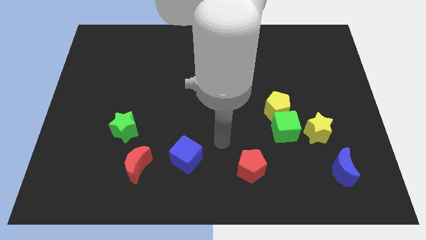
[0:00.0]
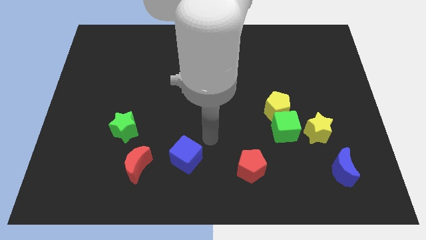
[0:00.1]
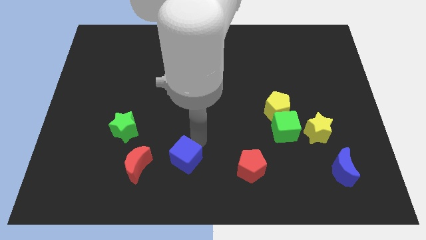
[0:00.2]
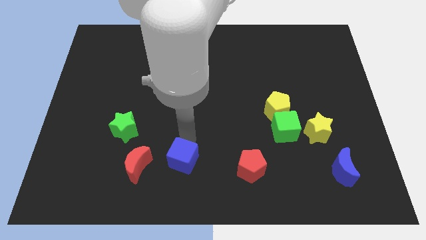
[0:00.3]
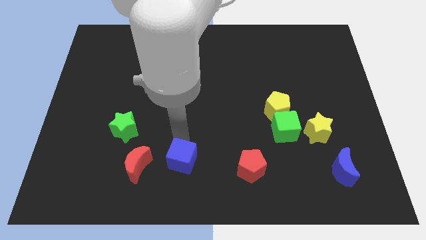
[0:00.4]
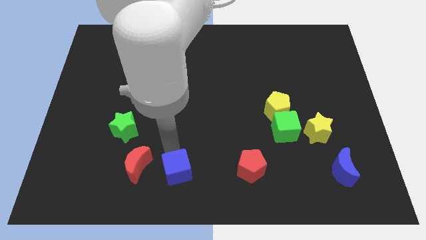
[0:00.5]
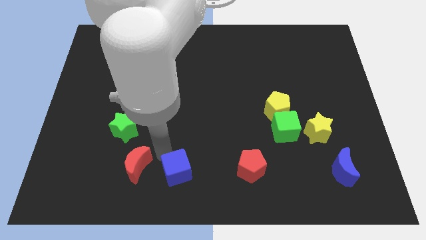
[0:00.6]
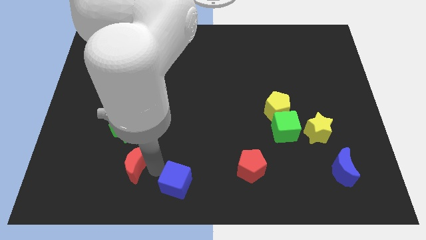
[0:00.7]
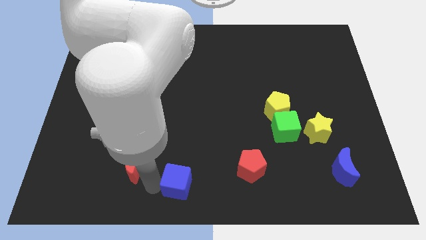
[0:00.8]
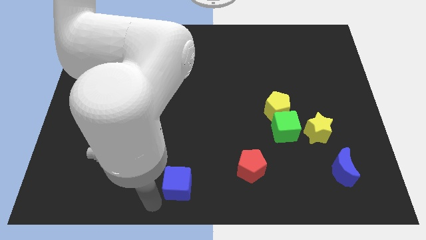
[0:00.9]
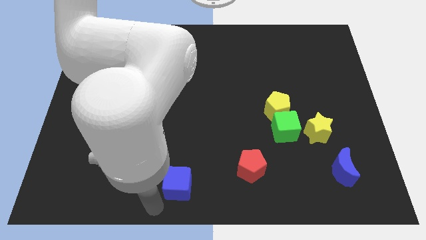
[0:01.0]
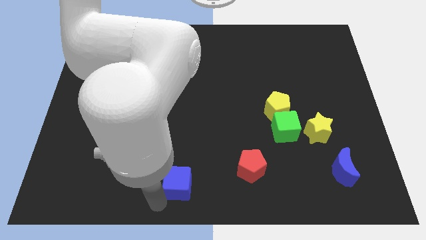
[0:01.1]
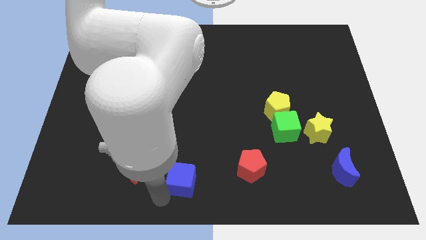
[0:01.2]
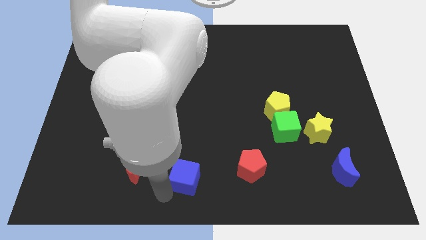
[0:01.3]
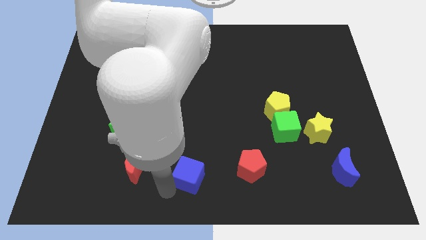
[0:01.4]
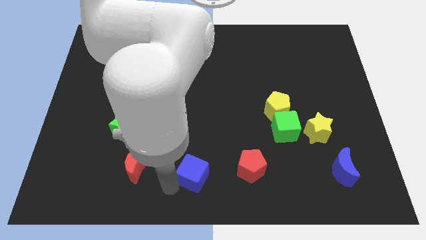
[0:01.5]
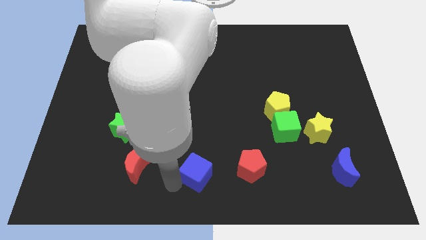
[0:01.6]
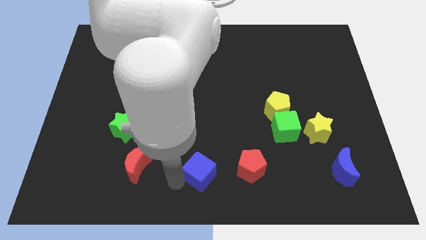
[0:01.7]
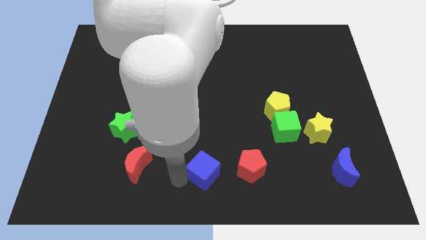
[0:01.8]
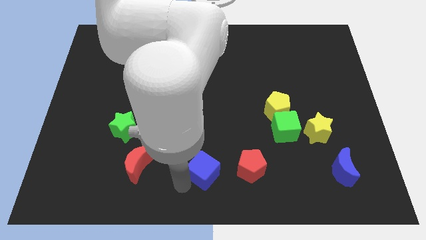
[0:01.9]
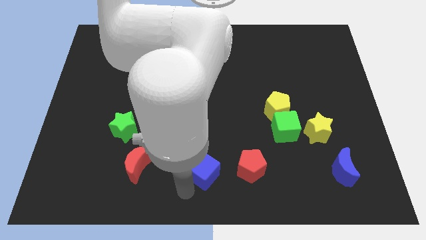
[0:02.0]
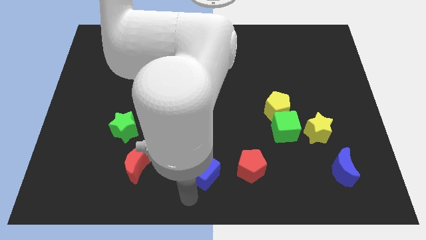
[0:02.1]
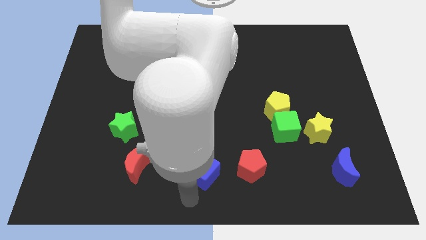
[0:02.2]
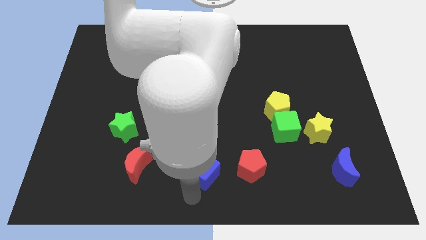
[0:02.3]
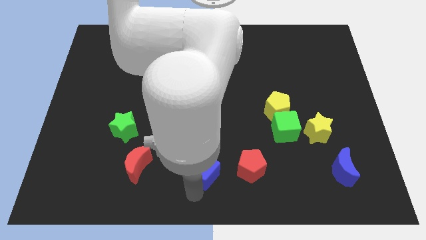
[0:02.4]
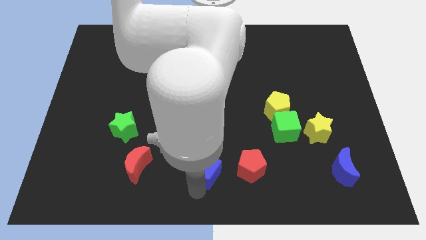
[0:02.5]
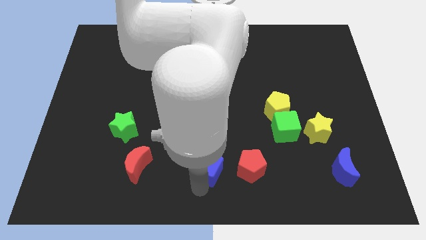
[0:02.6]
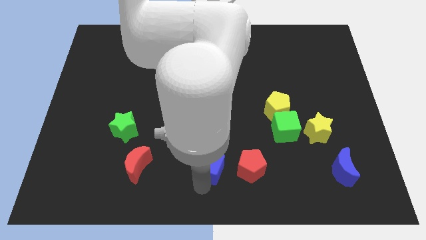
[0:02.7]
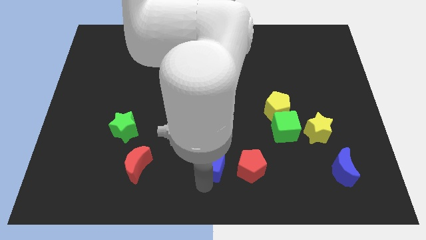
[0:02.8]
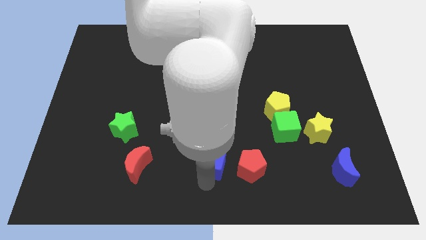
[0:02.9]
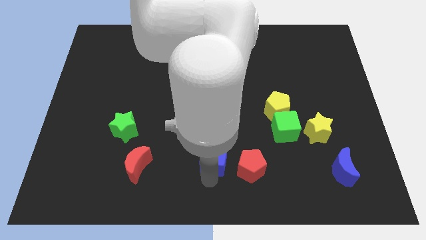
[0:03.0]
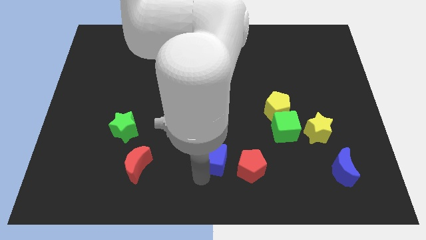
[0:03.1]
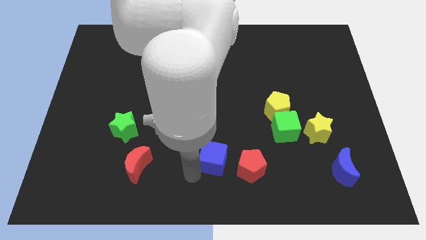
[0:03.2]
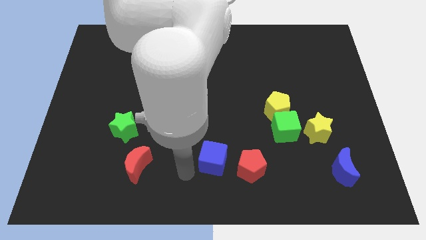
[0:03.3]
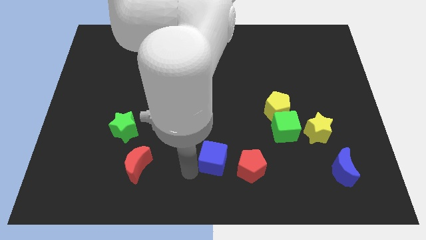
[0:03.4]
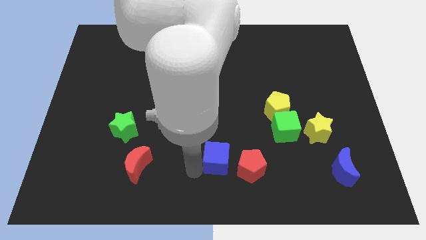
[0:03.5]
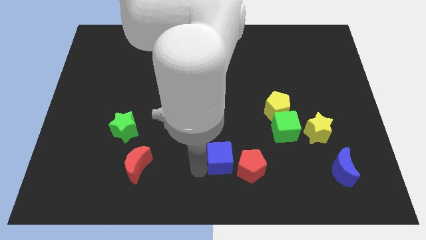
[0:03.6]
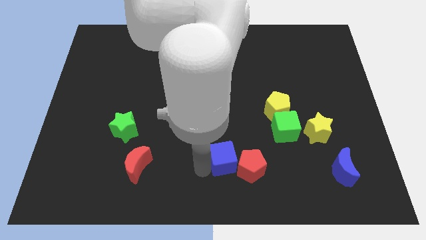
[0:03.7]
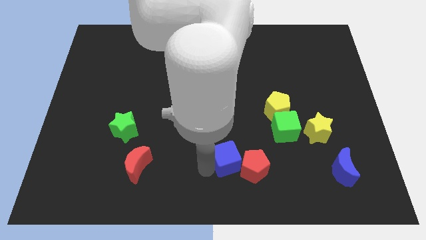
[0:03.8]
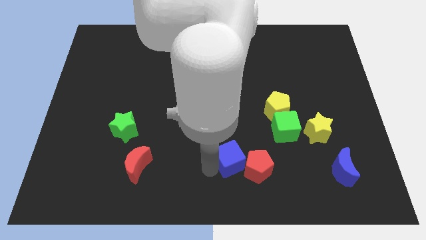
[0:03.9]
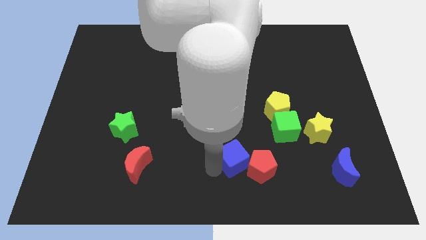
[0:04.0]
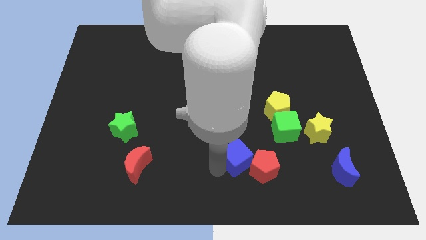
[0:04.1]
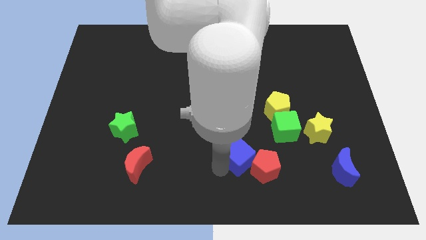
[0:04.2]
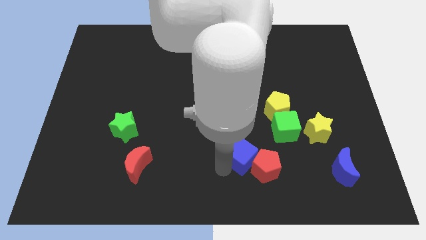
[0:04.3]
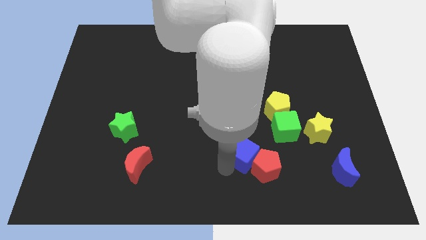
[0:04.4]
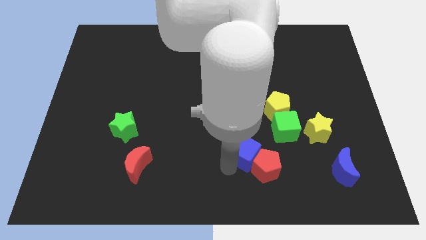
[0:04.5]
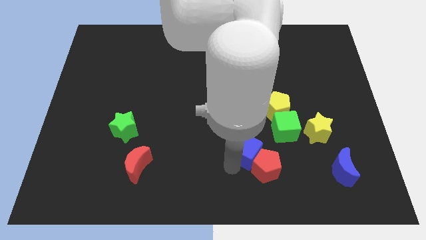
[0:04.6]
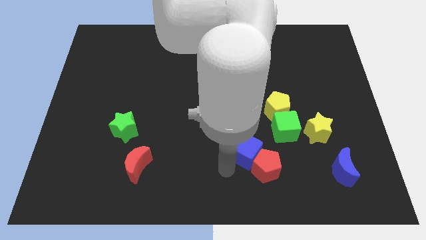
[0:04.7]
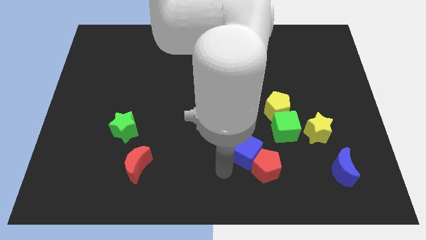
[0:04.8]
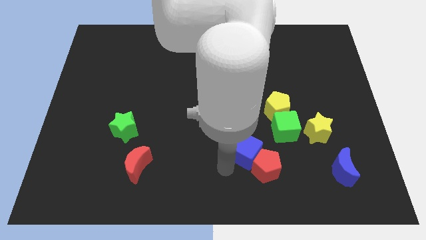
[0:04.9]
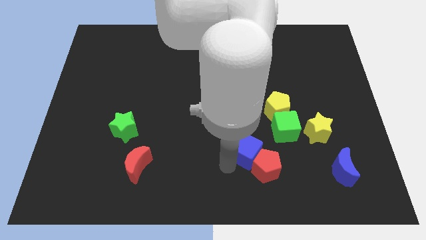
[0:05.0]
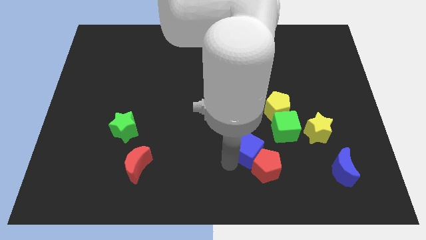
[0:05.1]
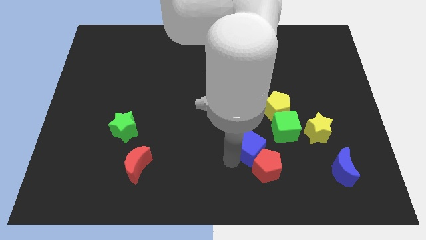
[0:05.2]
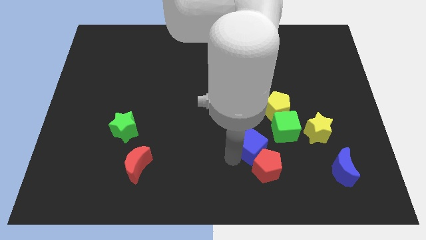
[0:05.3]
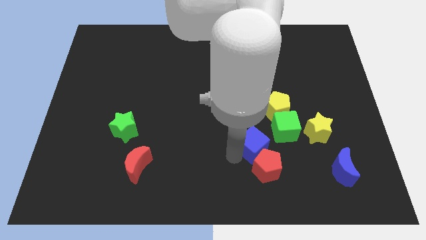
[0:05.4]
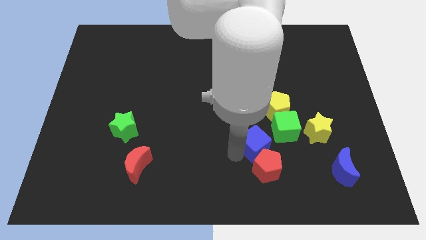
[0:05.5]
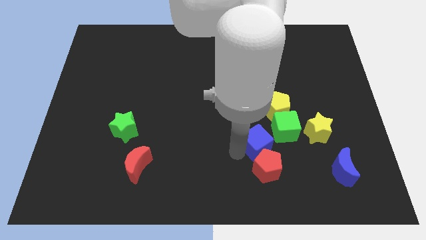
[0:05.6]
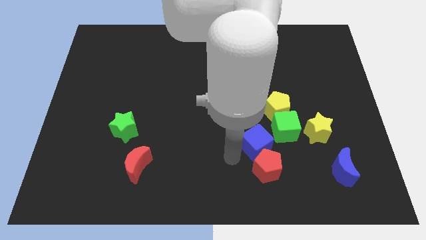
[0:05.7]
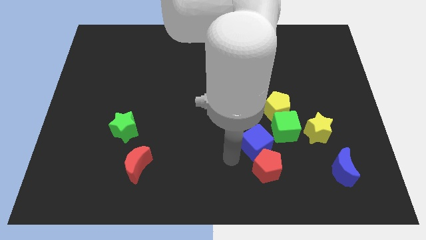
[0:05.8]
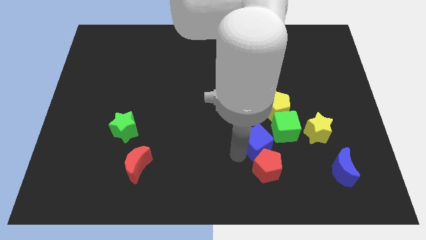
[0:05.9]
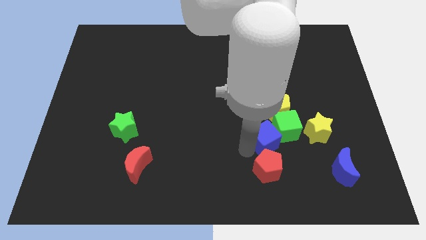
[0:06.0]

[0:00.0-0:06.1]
slide the blue cube close to the green cube

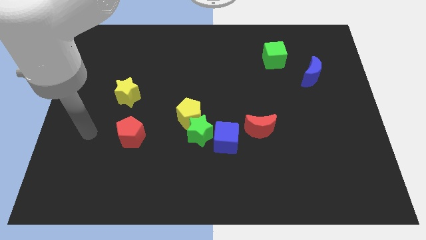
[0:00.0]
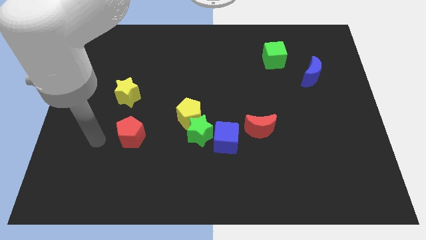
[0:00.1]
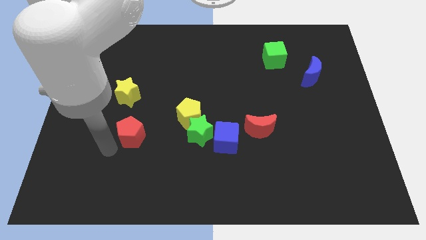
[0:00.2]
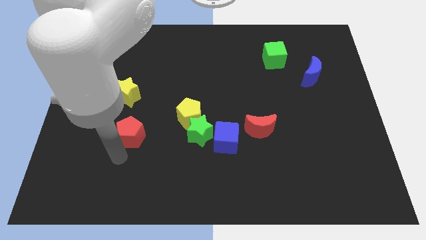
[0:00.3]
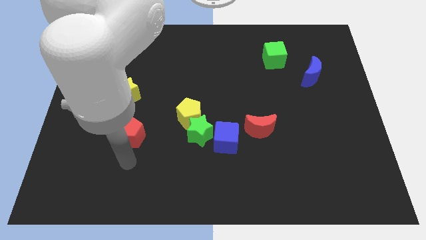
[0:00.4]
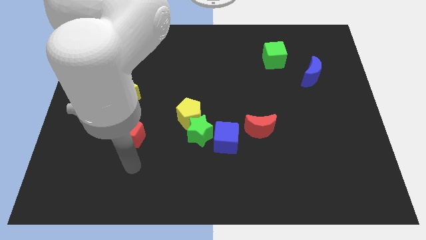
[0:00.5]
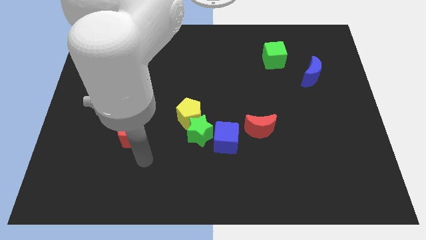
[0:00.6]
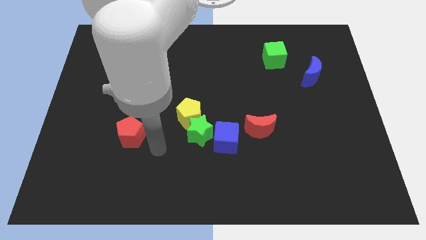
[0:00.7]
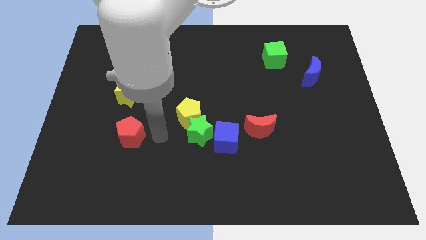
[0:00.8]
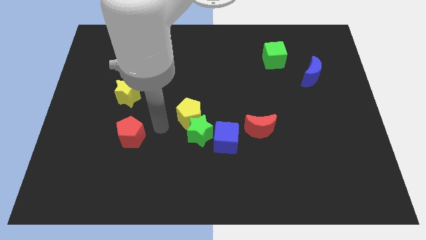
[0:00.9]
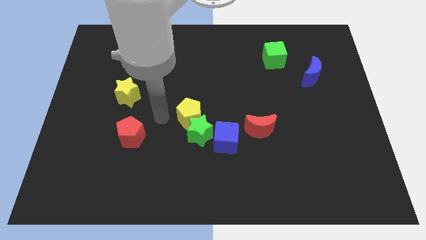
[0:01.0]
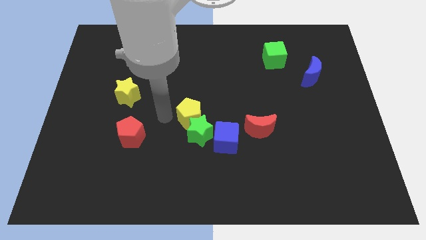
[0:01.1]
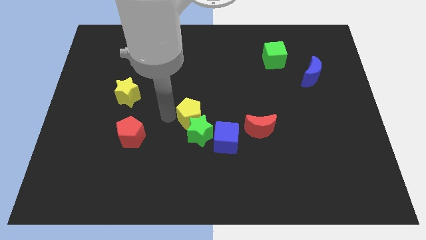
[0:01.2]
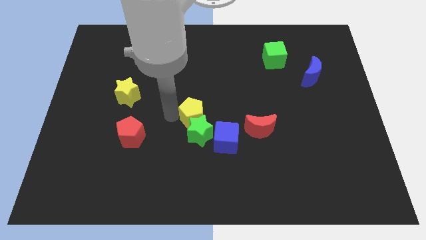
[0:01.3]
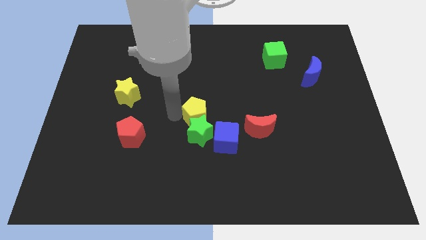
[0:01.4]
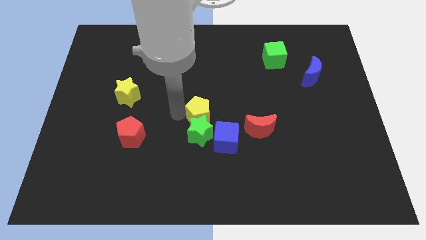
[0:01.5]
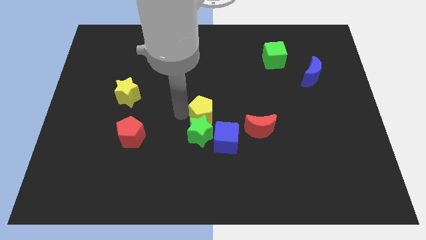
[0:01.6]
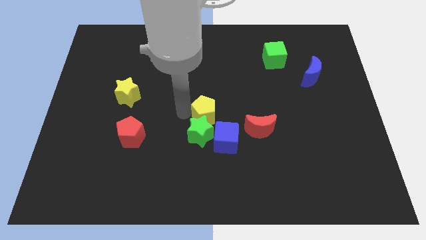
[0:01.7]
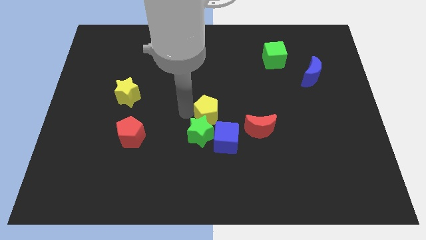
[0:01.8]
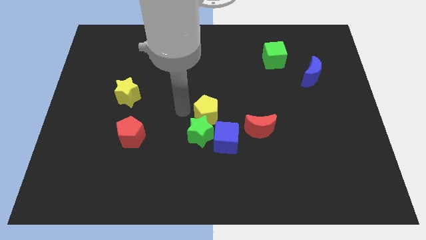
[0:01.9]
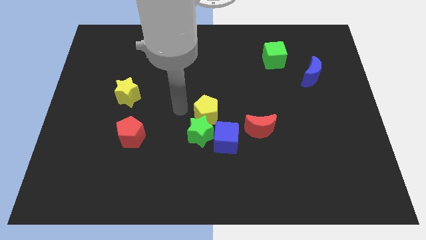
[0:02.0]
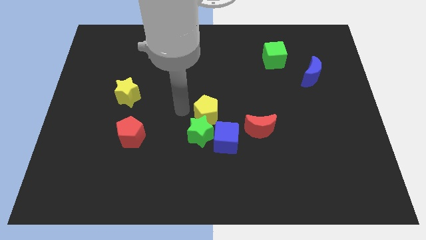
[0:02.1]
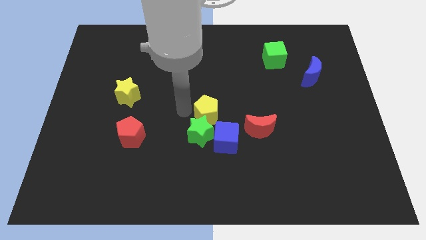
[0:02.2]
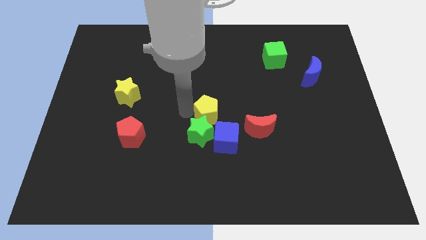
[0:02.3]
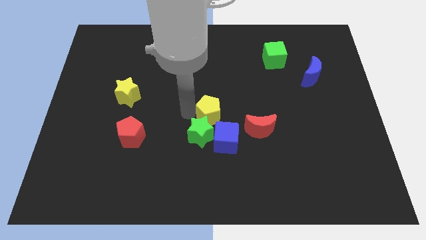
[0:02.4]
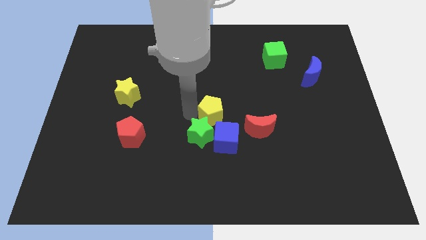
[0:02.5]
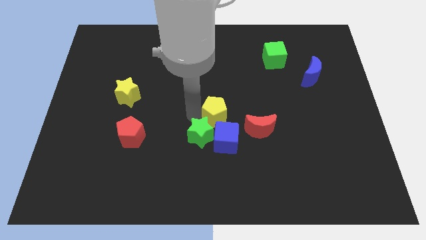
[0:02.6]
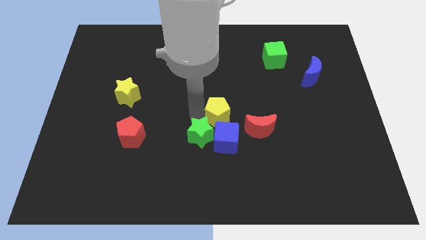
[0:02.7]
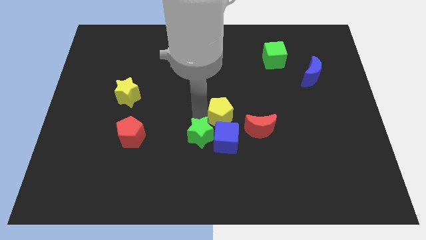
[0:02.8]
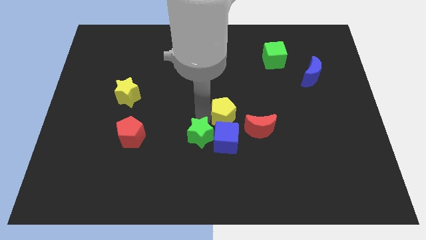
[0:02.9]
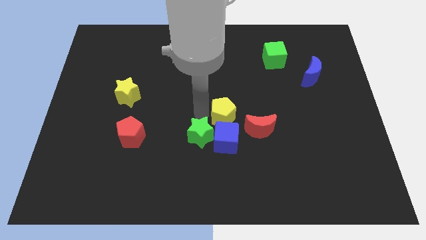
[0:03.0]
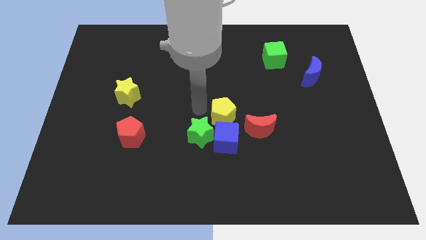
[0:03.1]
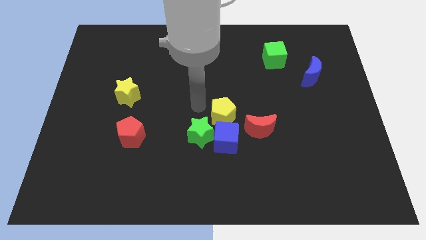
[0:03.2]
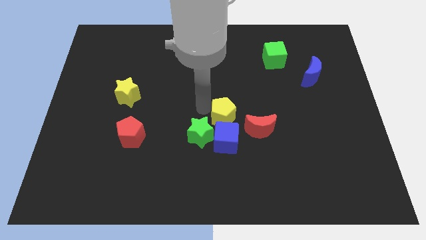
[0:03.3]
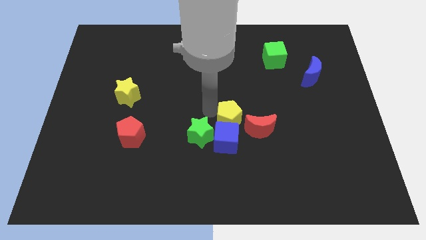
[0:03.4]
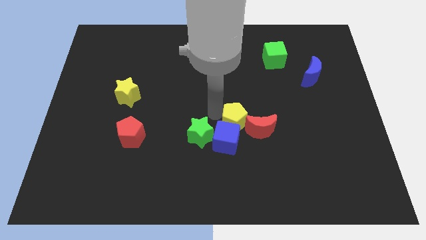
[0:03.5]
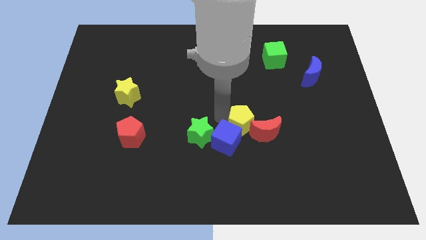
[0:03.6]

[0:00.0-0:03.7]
slide the yellow pentagon to the red moon
